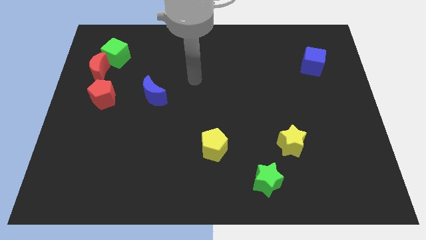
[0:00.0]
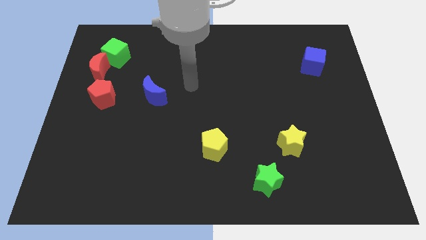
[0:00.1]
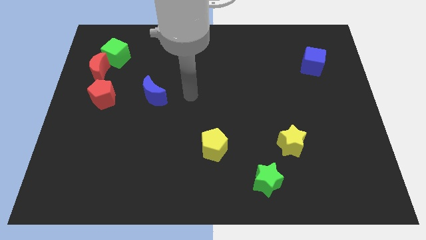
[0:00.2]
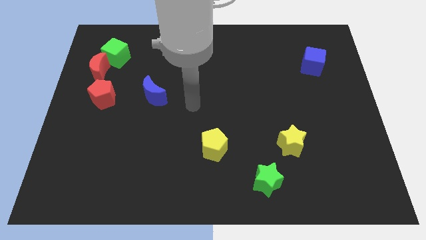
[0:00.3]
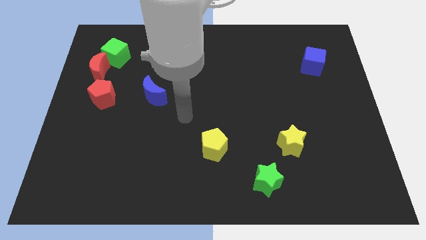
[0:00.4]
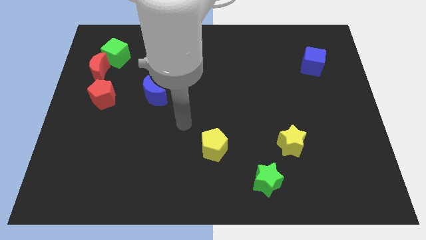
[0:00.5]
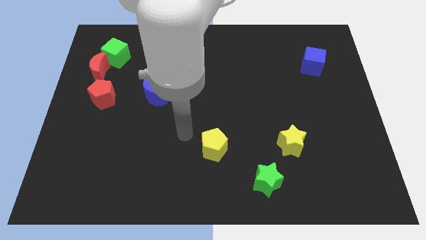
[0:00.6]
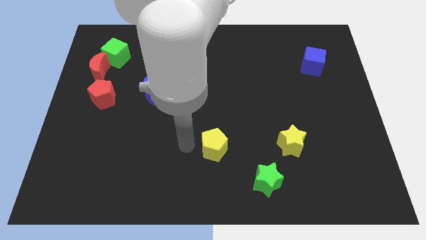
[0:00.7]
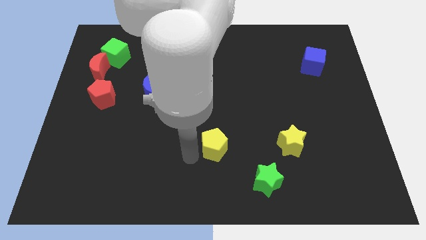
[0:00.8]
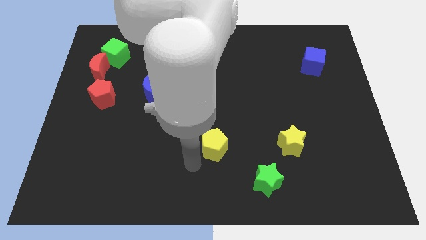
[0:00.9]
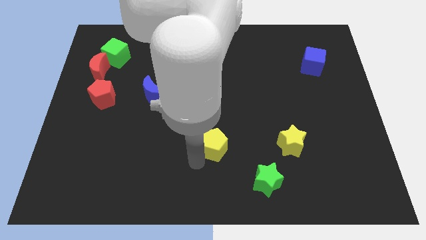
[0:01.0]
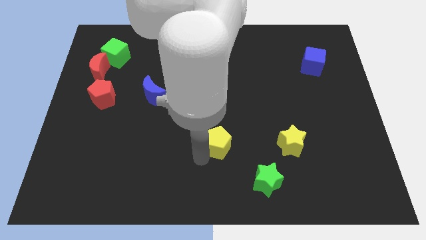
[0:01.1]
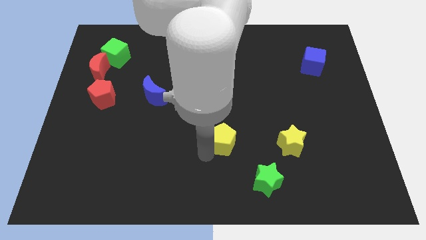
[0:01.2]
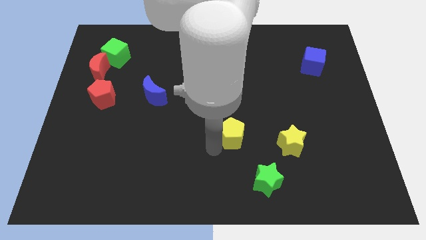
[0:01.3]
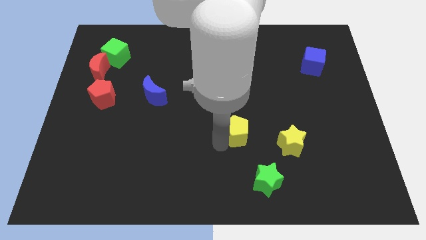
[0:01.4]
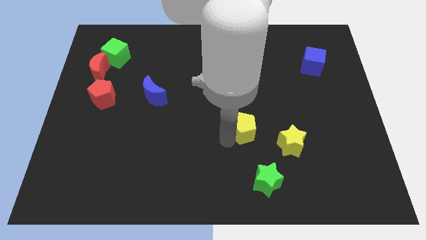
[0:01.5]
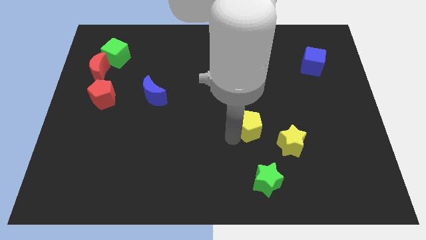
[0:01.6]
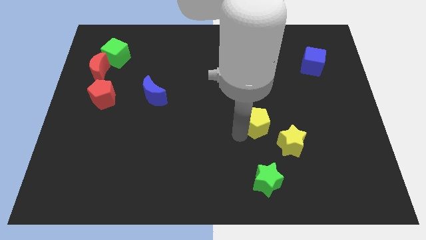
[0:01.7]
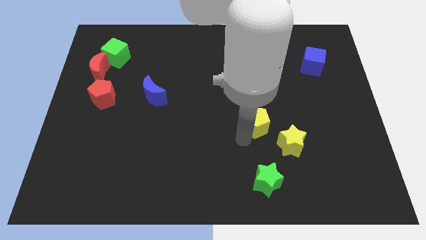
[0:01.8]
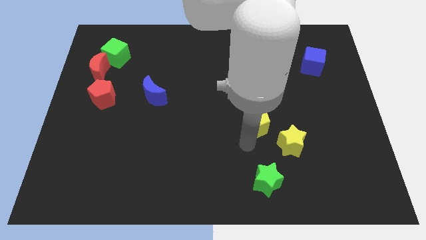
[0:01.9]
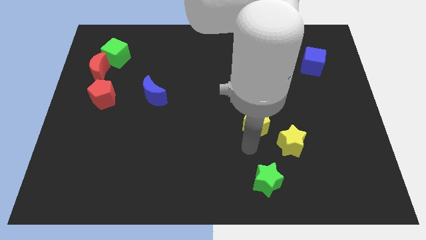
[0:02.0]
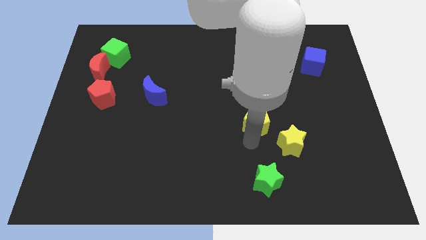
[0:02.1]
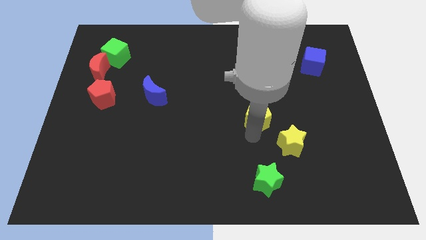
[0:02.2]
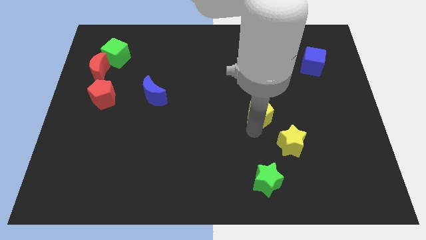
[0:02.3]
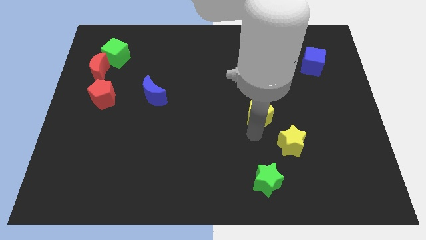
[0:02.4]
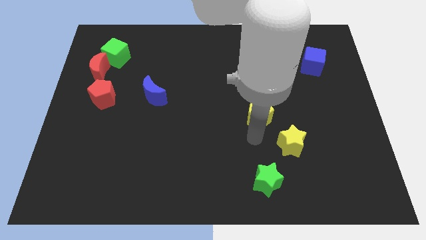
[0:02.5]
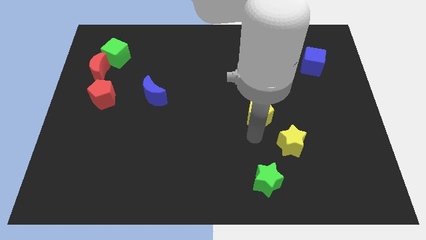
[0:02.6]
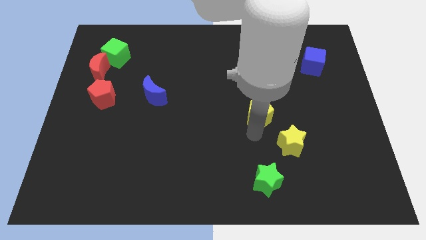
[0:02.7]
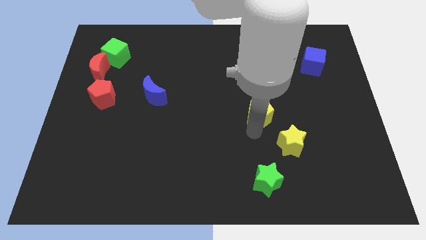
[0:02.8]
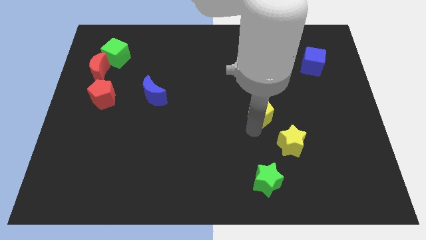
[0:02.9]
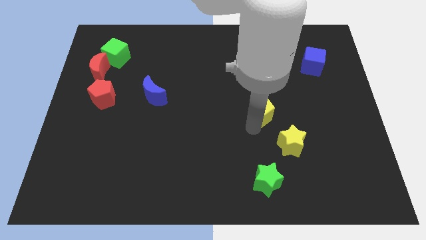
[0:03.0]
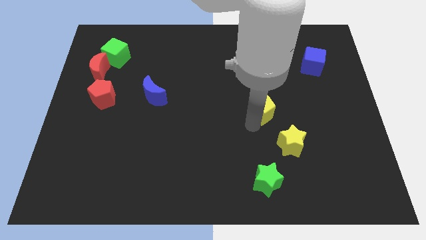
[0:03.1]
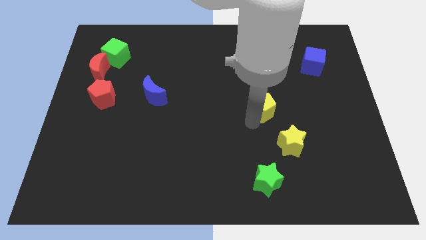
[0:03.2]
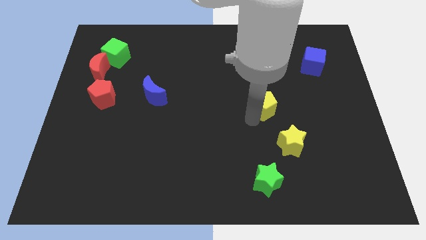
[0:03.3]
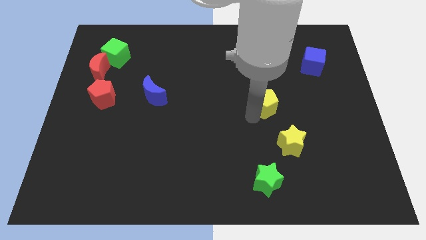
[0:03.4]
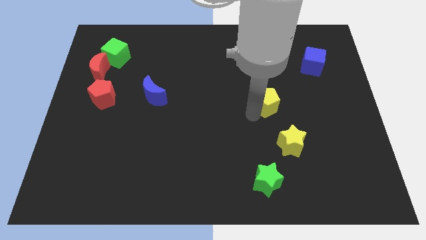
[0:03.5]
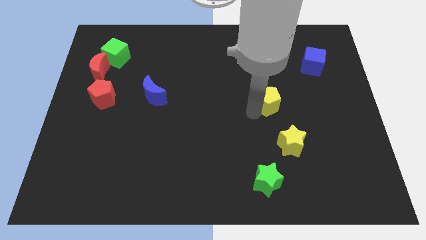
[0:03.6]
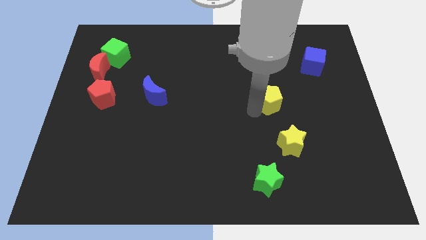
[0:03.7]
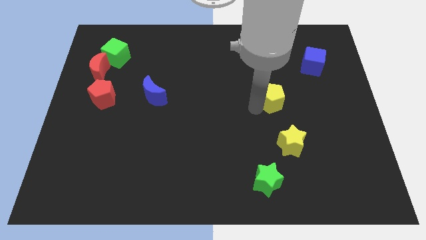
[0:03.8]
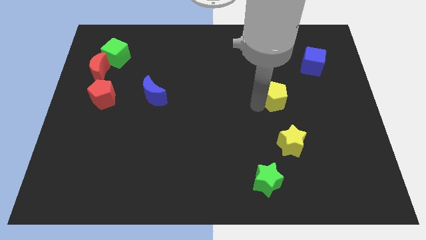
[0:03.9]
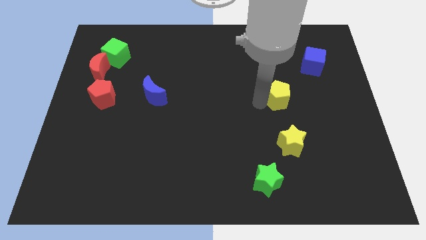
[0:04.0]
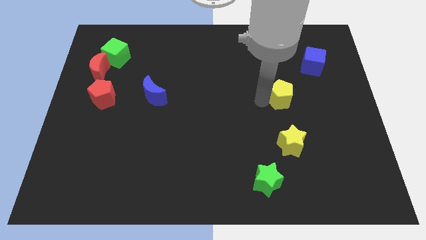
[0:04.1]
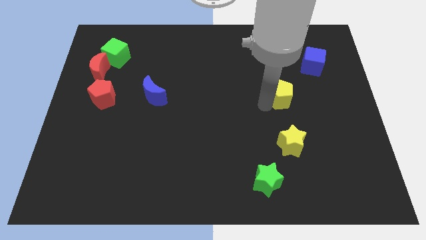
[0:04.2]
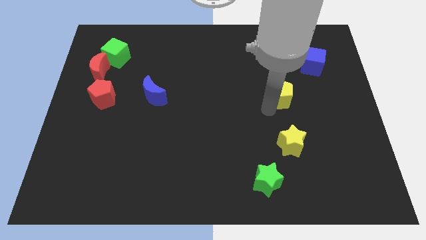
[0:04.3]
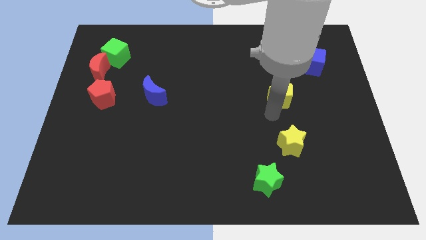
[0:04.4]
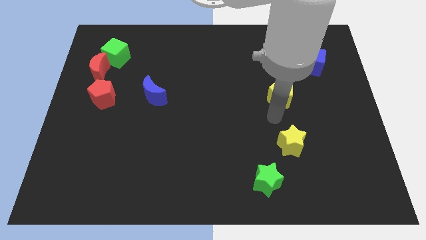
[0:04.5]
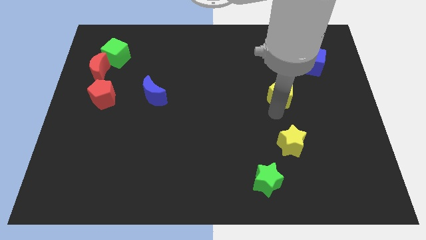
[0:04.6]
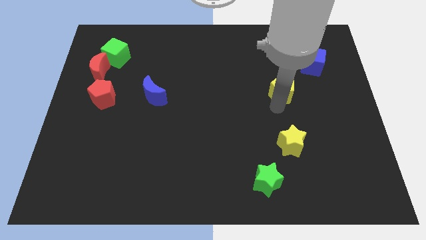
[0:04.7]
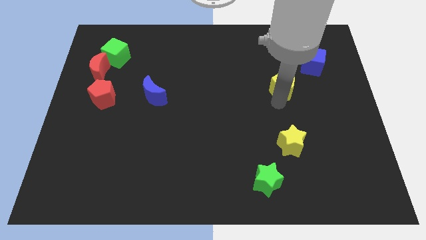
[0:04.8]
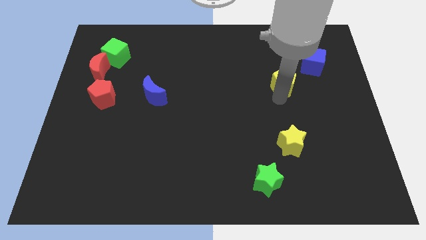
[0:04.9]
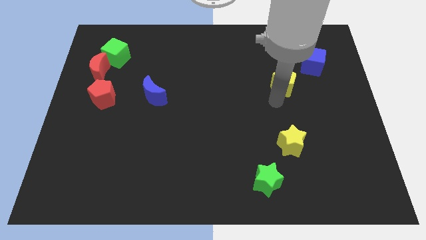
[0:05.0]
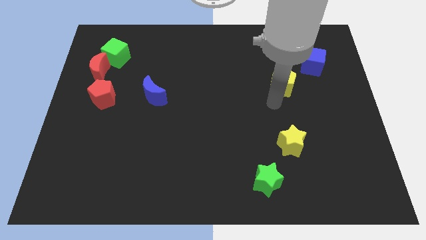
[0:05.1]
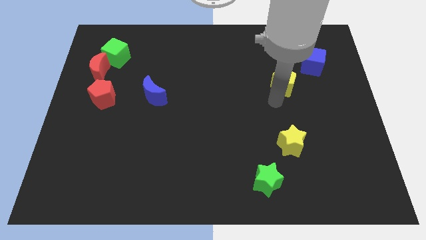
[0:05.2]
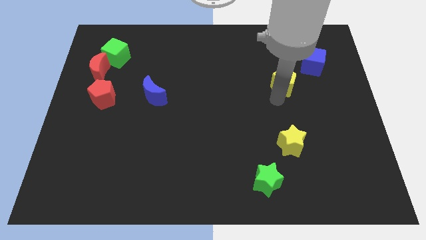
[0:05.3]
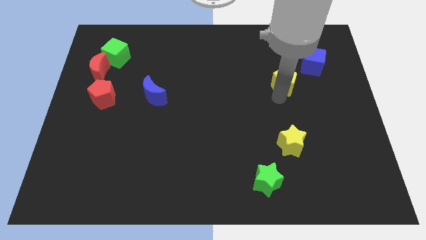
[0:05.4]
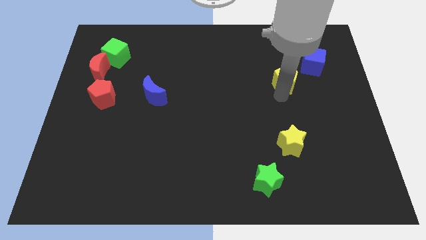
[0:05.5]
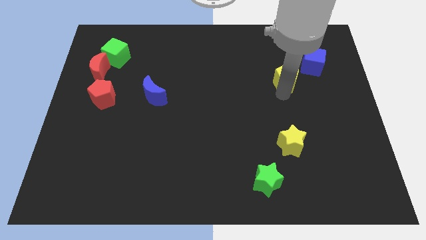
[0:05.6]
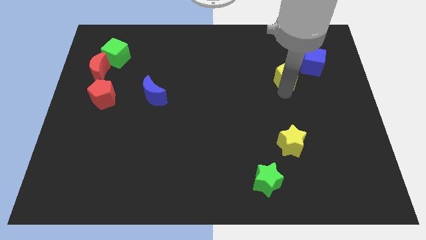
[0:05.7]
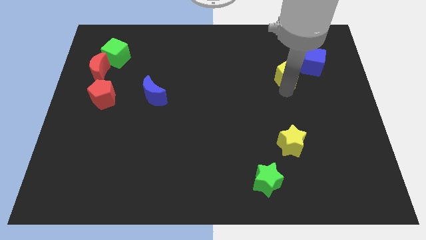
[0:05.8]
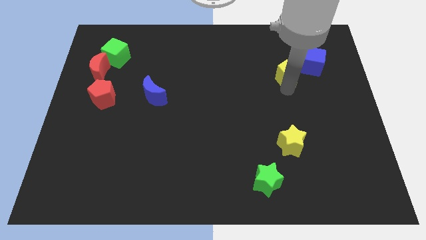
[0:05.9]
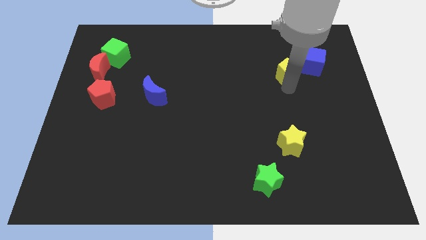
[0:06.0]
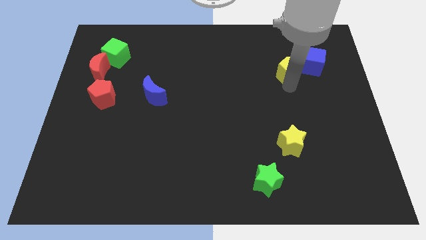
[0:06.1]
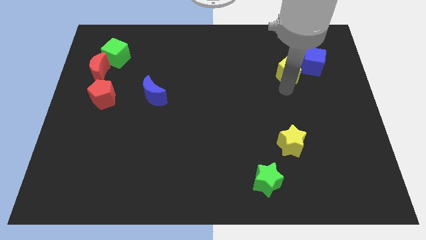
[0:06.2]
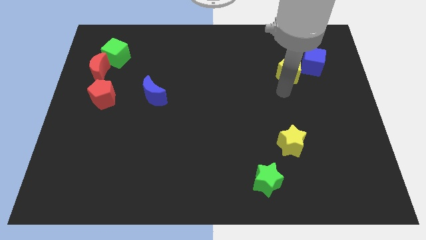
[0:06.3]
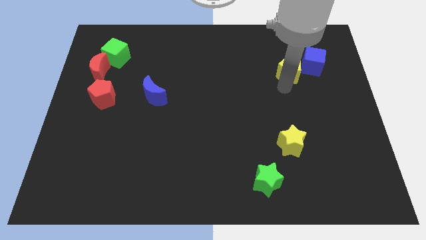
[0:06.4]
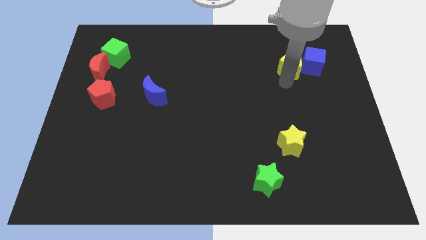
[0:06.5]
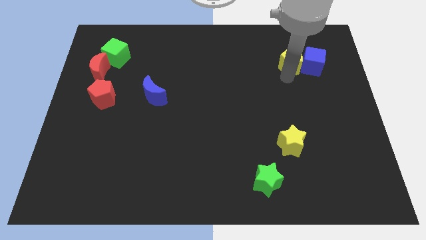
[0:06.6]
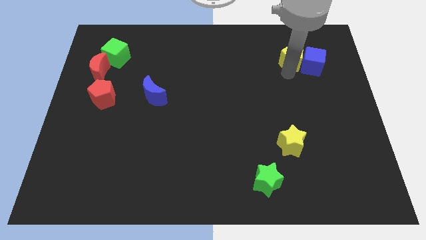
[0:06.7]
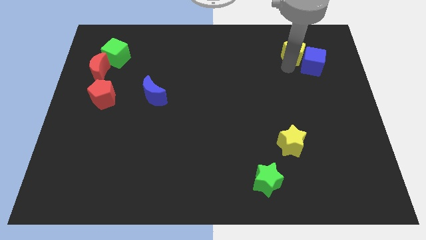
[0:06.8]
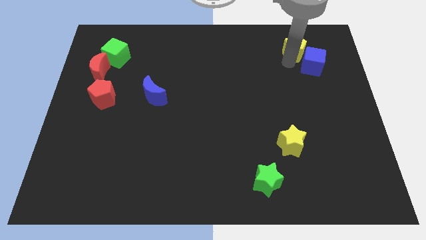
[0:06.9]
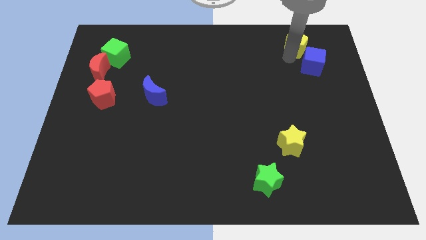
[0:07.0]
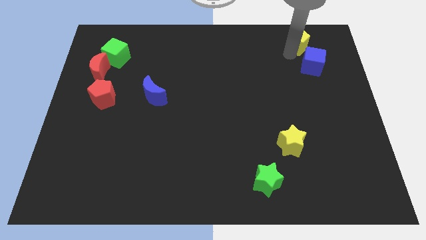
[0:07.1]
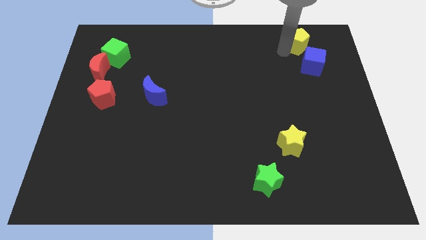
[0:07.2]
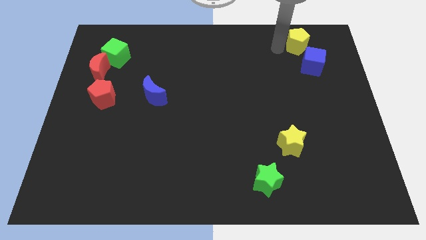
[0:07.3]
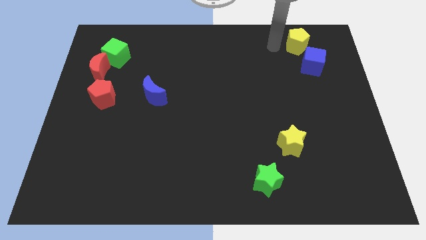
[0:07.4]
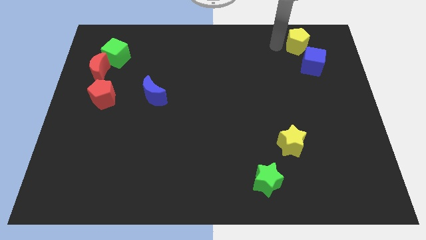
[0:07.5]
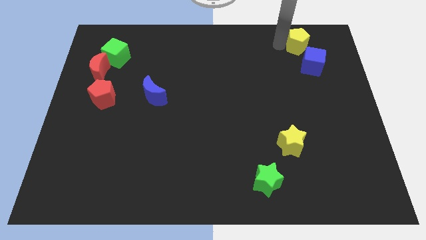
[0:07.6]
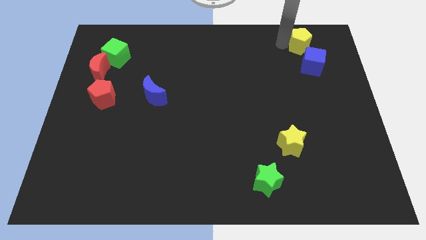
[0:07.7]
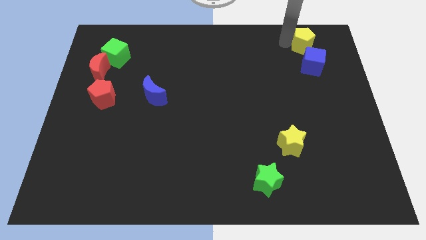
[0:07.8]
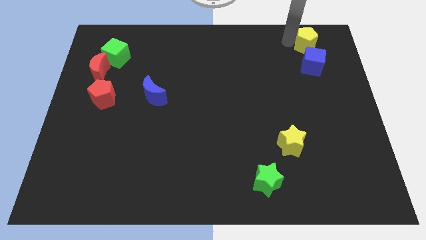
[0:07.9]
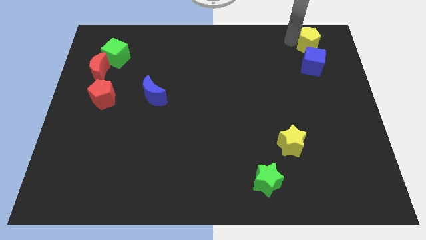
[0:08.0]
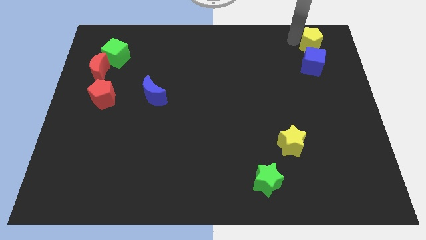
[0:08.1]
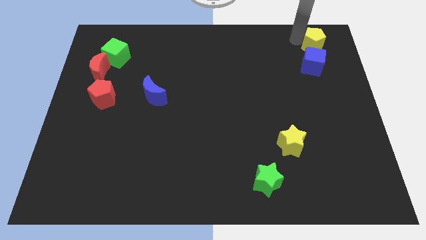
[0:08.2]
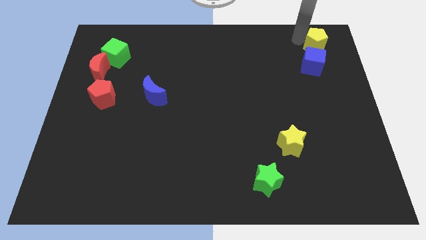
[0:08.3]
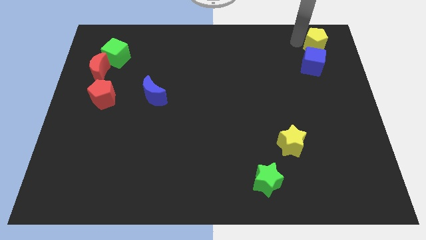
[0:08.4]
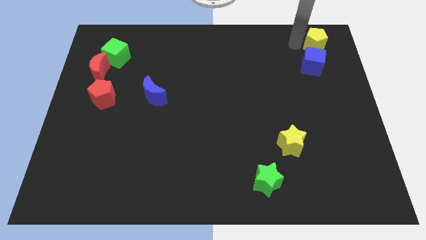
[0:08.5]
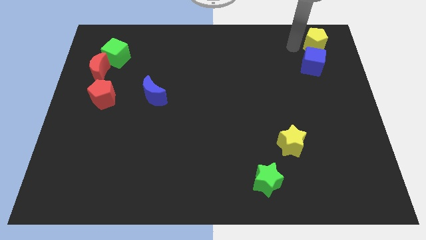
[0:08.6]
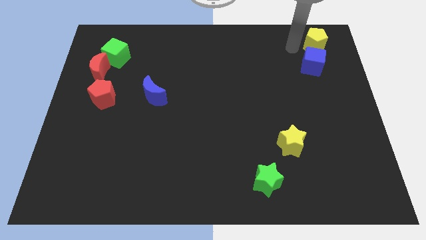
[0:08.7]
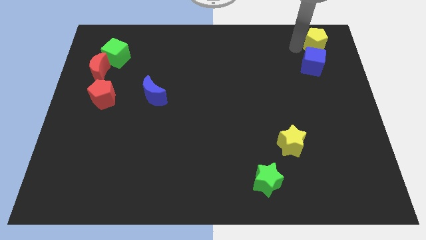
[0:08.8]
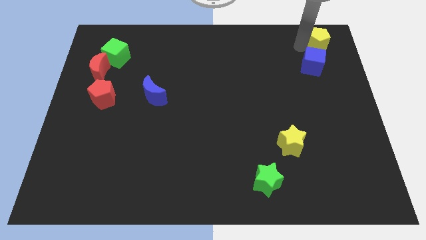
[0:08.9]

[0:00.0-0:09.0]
put the yellow pentagon to the upper right corner
